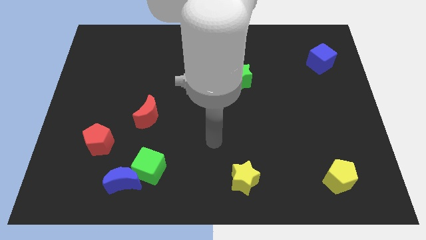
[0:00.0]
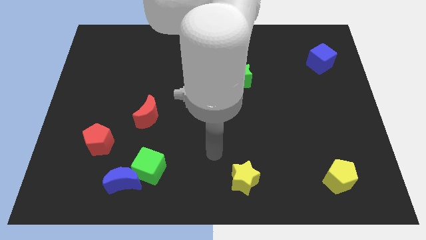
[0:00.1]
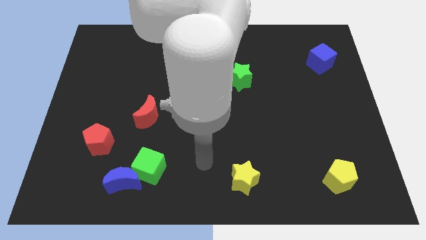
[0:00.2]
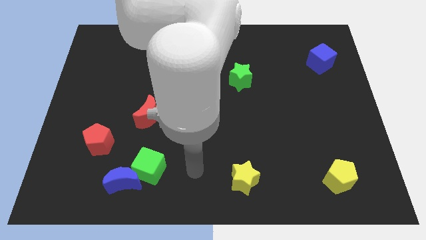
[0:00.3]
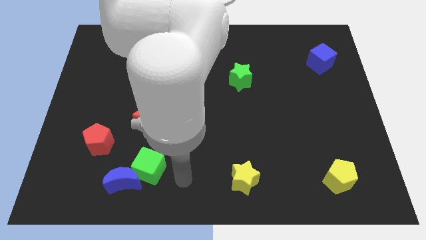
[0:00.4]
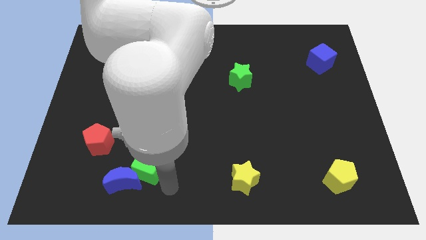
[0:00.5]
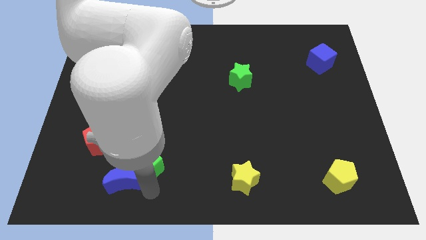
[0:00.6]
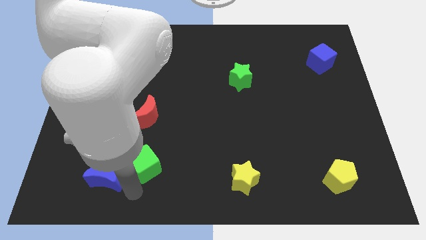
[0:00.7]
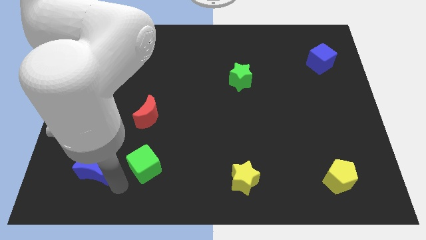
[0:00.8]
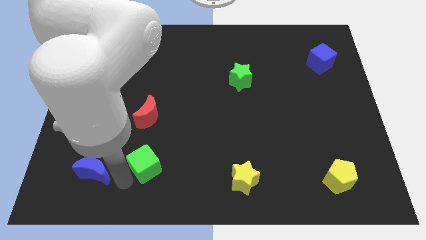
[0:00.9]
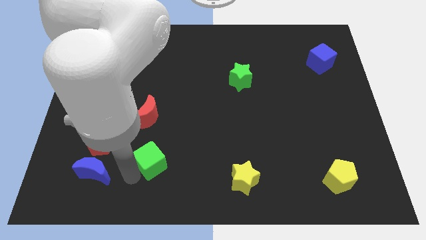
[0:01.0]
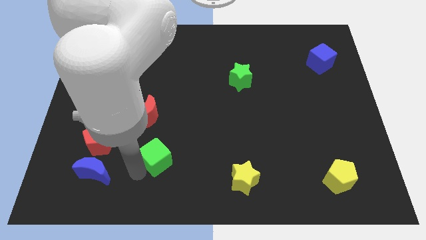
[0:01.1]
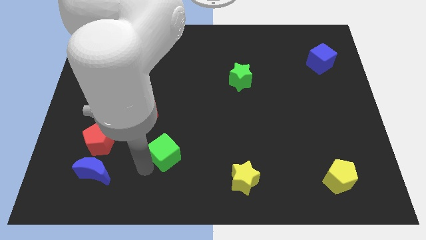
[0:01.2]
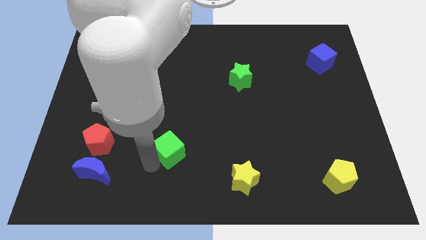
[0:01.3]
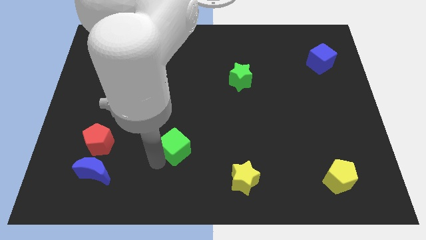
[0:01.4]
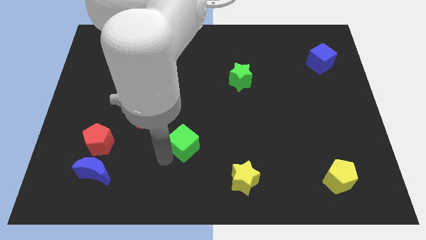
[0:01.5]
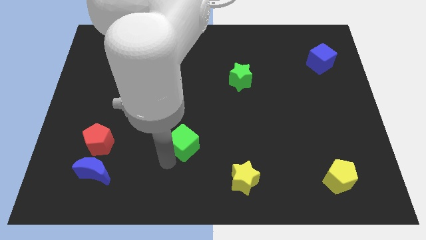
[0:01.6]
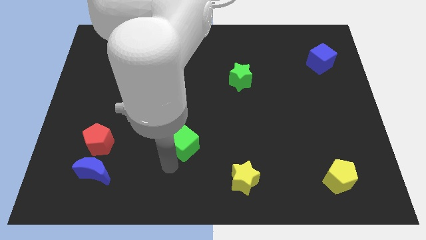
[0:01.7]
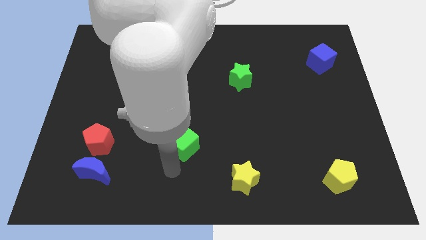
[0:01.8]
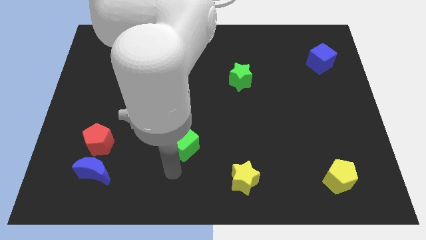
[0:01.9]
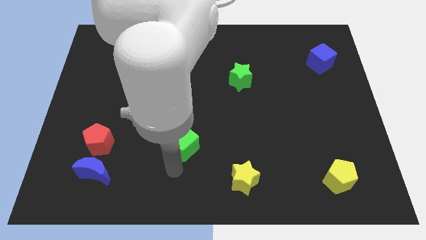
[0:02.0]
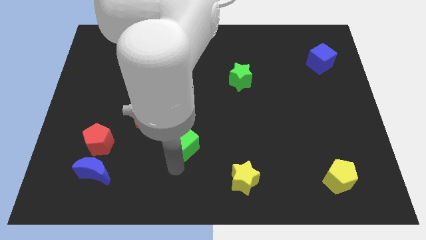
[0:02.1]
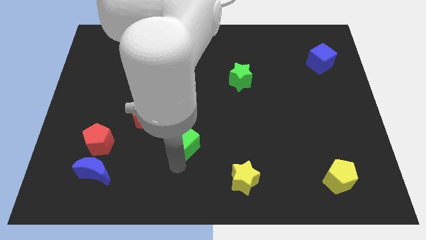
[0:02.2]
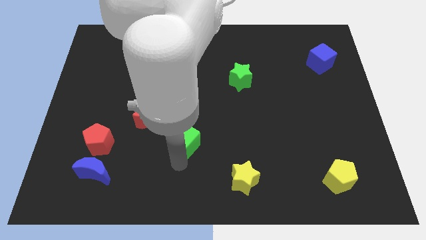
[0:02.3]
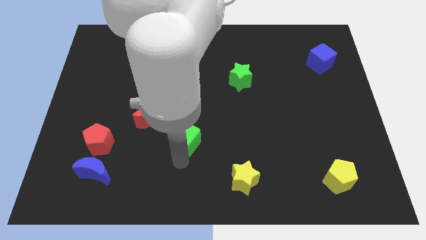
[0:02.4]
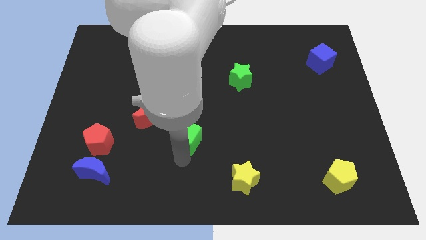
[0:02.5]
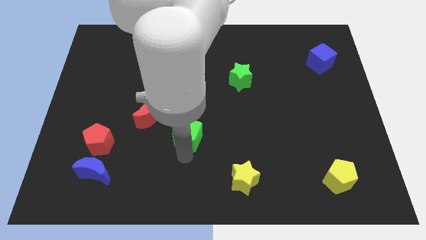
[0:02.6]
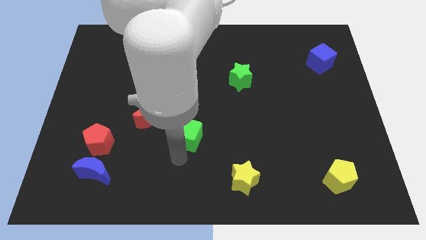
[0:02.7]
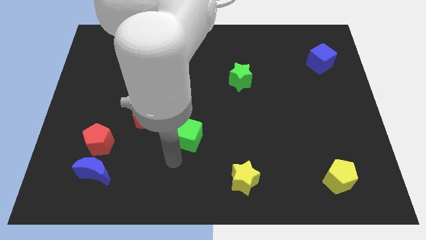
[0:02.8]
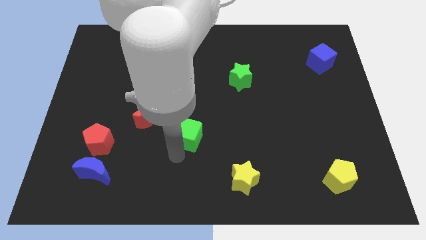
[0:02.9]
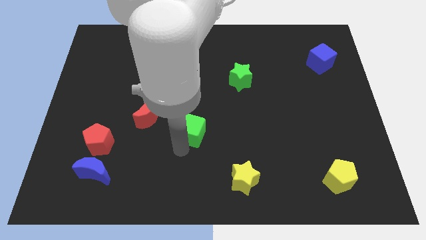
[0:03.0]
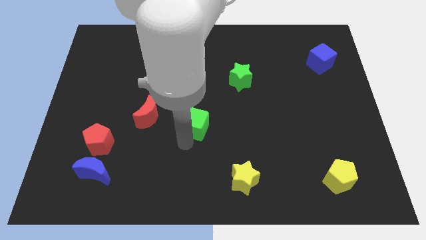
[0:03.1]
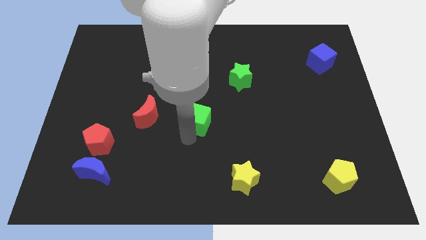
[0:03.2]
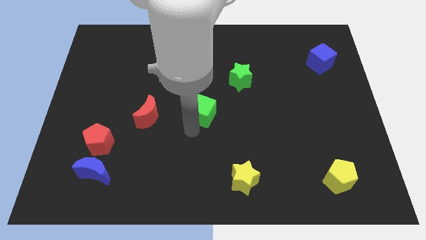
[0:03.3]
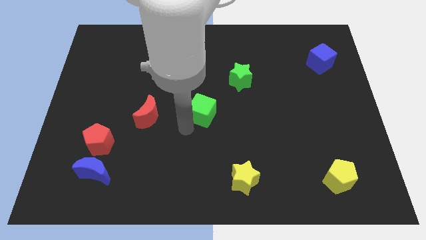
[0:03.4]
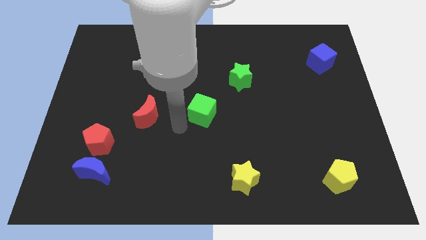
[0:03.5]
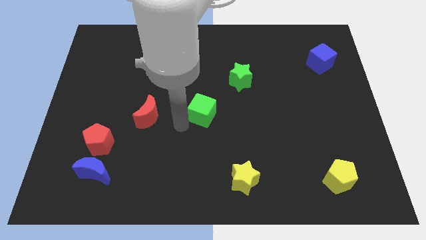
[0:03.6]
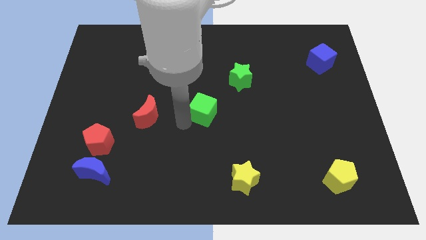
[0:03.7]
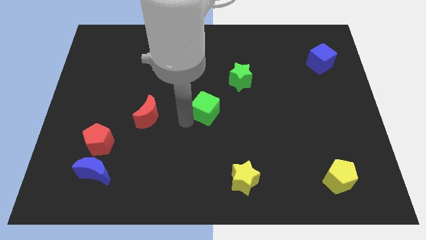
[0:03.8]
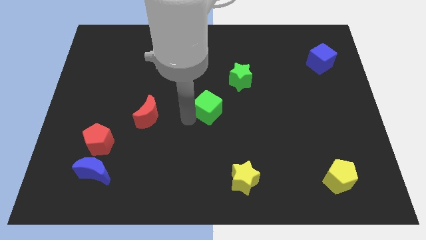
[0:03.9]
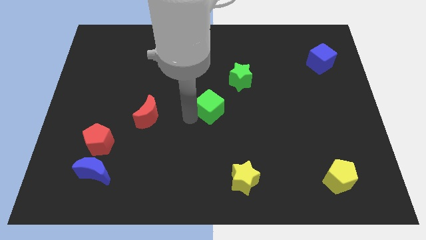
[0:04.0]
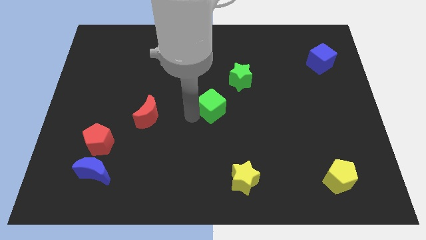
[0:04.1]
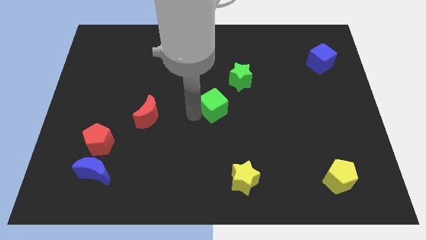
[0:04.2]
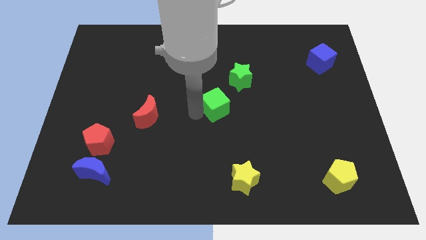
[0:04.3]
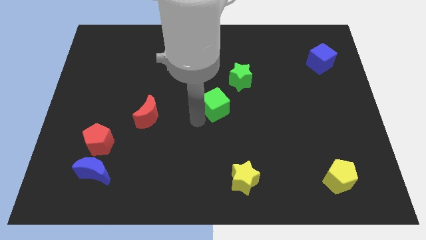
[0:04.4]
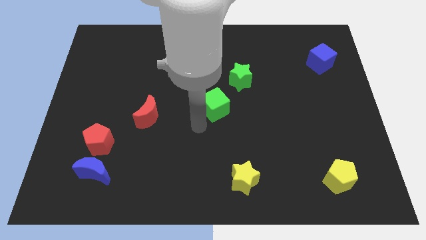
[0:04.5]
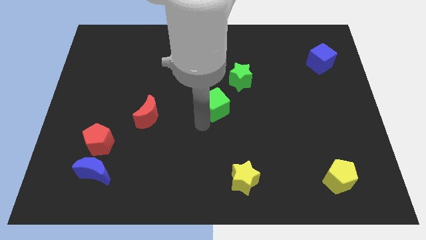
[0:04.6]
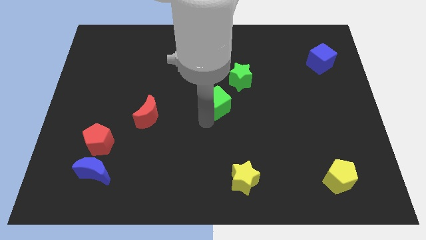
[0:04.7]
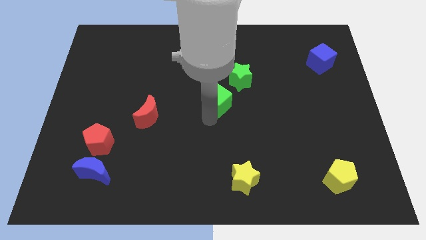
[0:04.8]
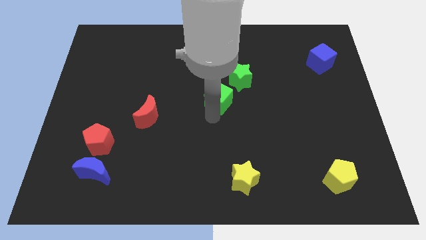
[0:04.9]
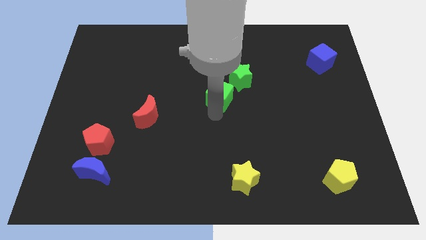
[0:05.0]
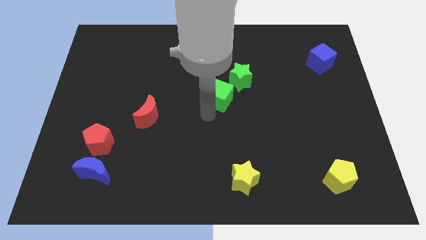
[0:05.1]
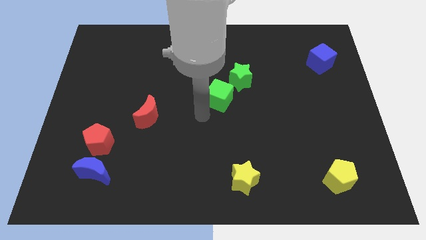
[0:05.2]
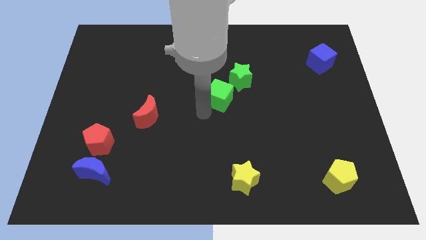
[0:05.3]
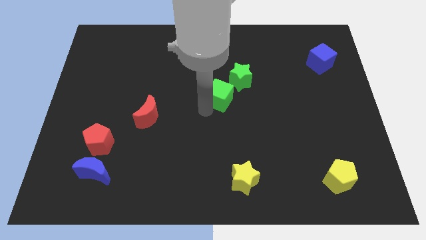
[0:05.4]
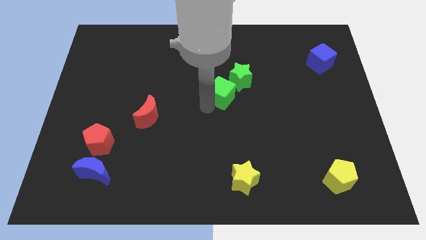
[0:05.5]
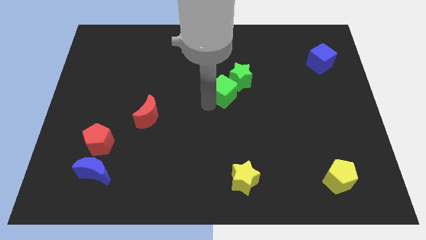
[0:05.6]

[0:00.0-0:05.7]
slide the green cube towards the green star
